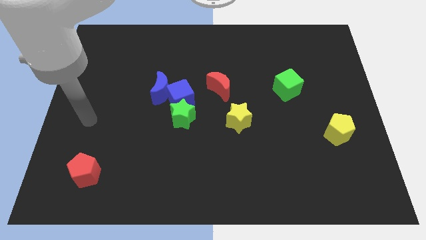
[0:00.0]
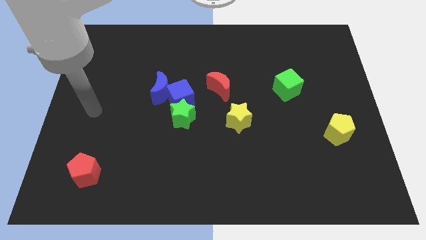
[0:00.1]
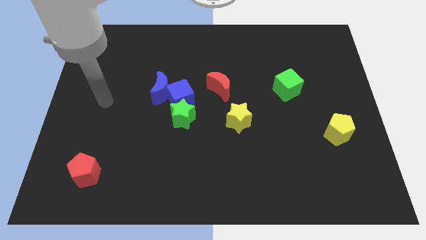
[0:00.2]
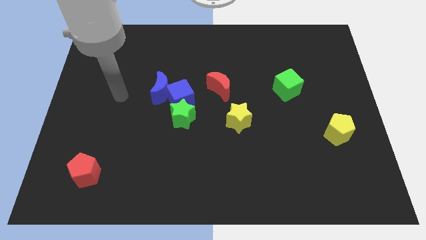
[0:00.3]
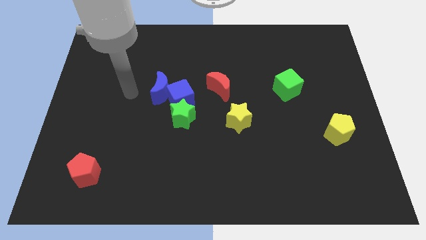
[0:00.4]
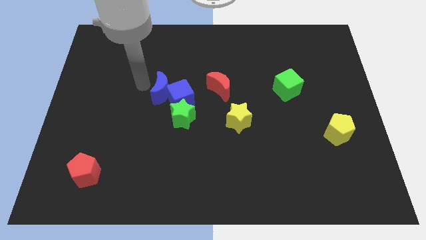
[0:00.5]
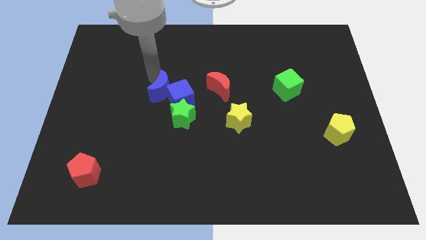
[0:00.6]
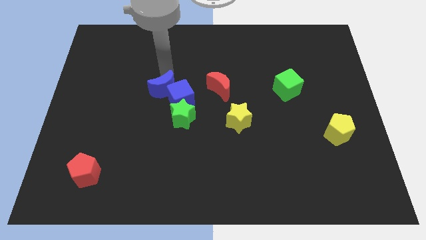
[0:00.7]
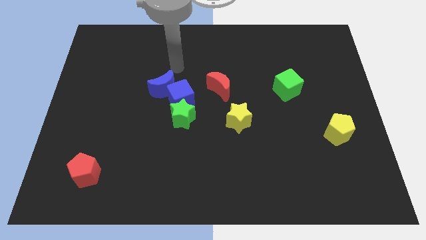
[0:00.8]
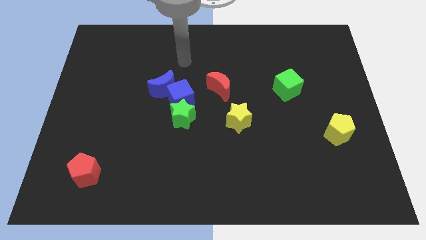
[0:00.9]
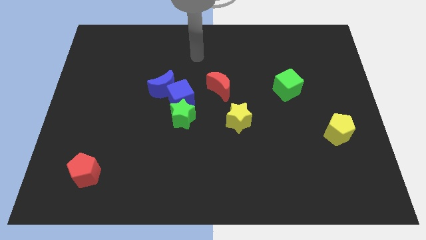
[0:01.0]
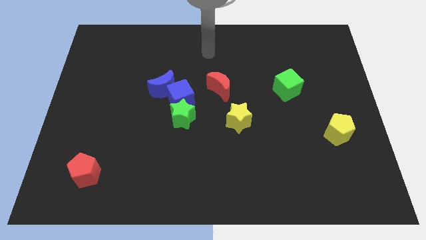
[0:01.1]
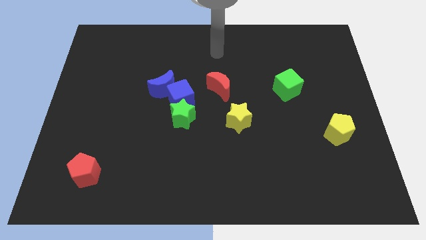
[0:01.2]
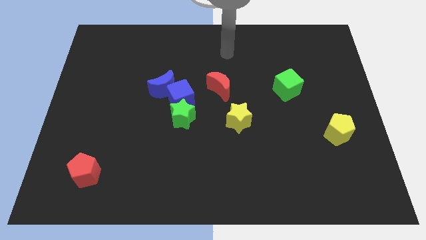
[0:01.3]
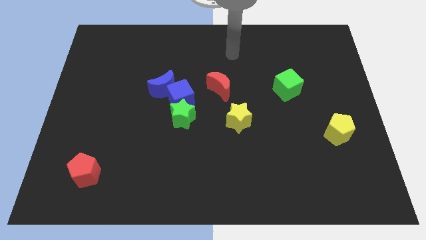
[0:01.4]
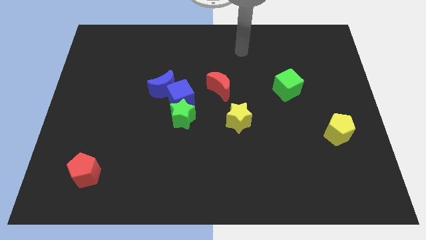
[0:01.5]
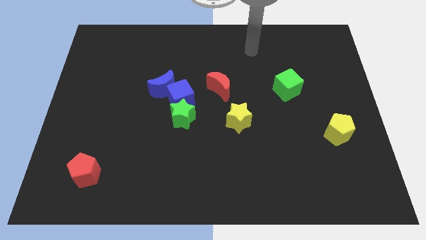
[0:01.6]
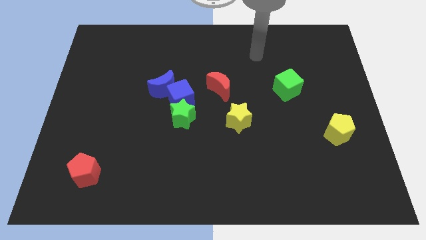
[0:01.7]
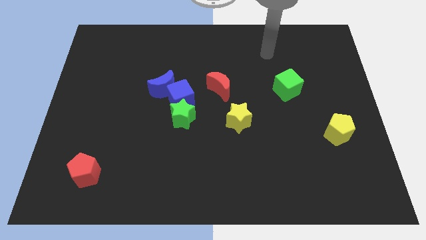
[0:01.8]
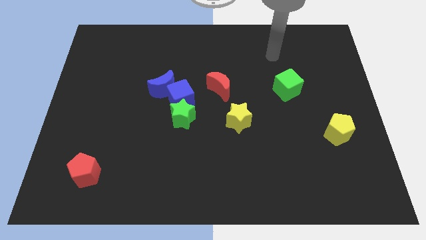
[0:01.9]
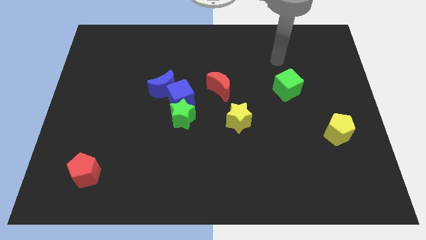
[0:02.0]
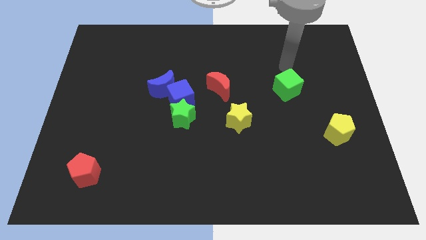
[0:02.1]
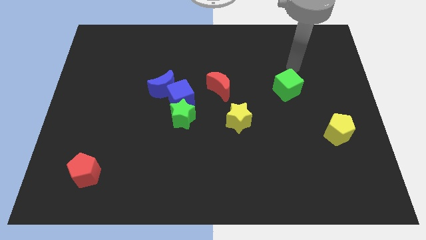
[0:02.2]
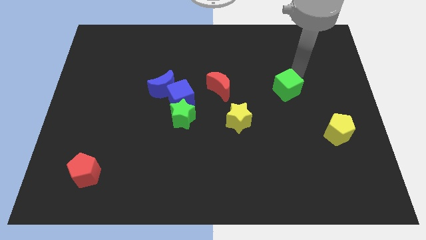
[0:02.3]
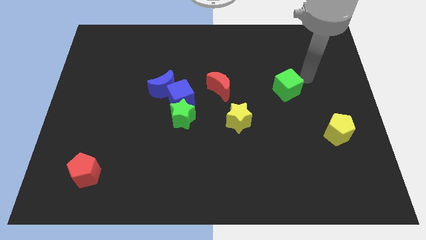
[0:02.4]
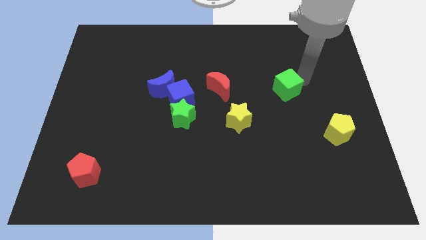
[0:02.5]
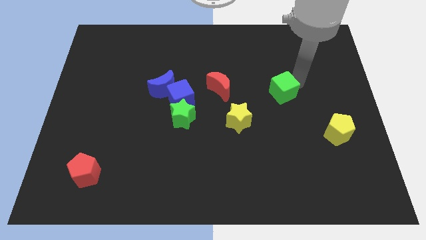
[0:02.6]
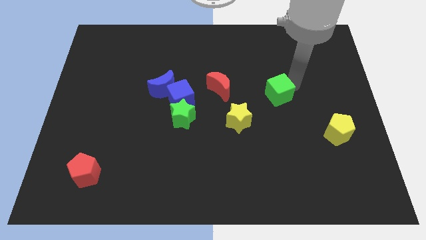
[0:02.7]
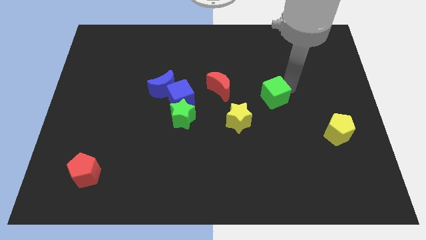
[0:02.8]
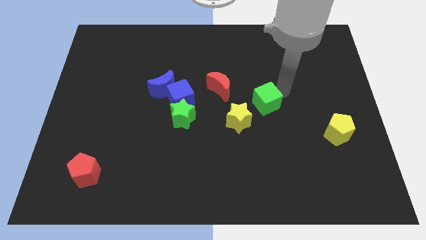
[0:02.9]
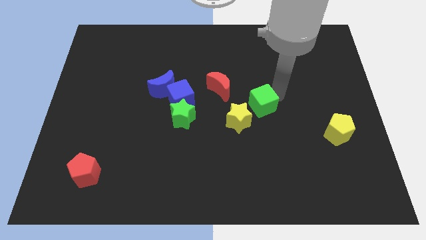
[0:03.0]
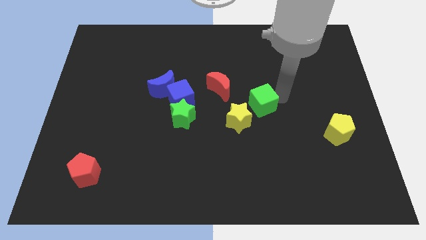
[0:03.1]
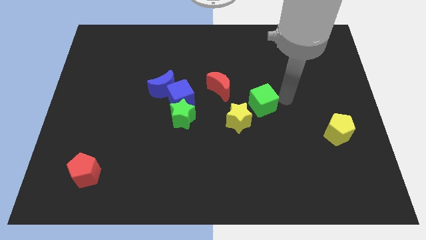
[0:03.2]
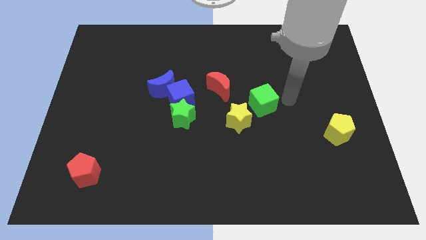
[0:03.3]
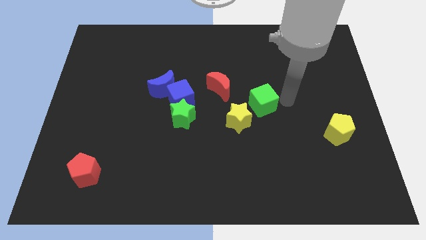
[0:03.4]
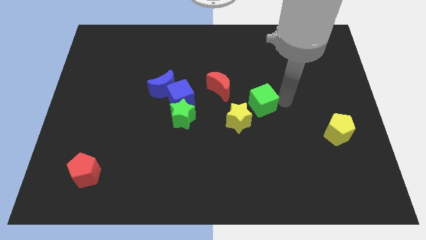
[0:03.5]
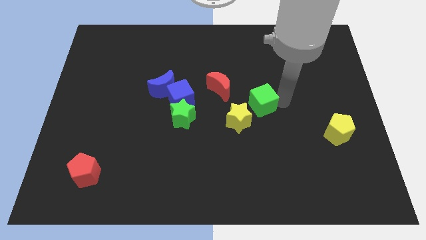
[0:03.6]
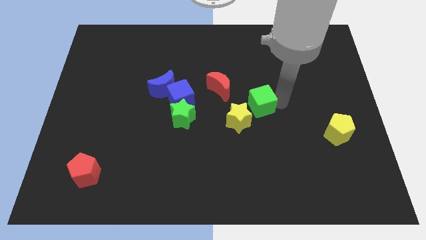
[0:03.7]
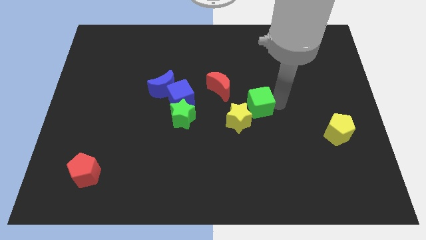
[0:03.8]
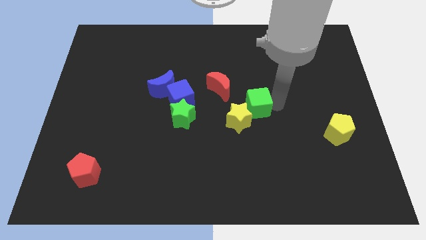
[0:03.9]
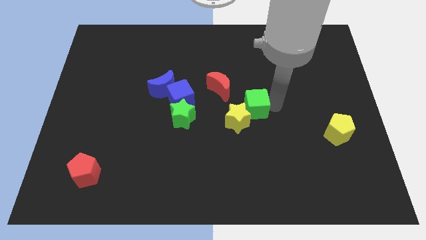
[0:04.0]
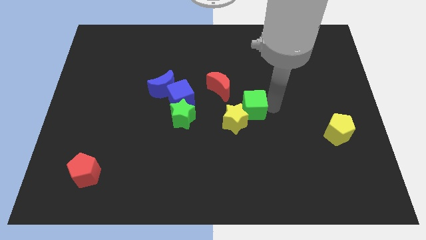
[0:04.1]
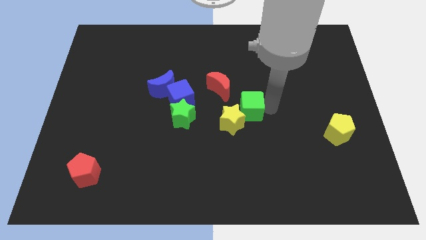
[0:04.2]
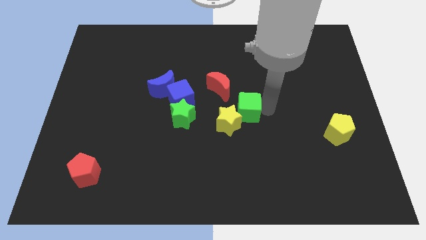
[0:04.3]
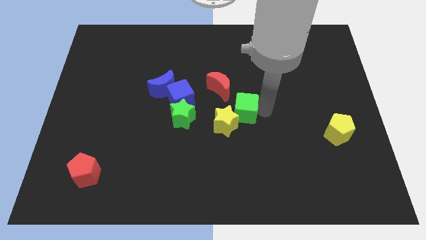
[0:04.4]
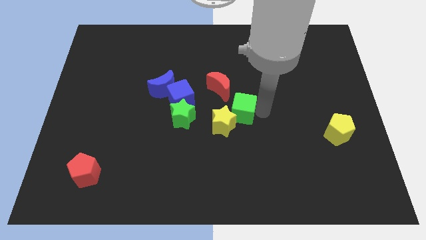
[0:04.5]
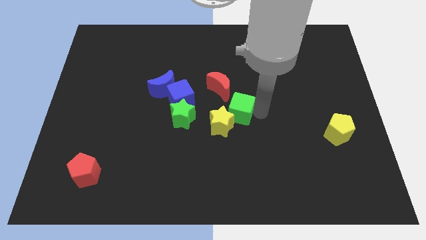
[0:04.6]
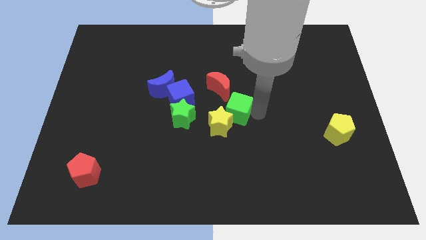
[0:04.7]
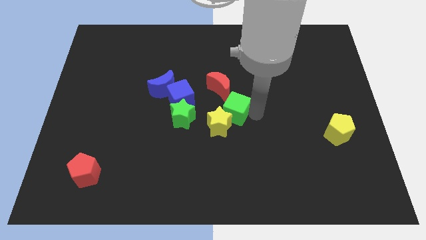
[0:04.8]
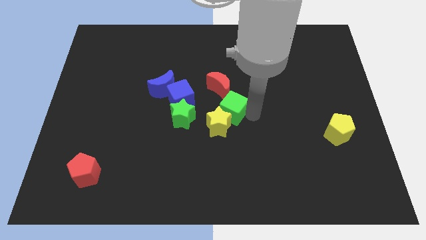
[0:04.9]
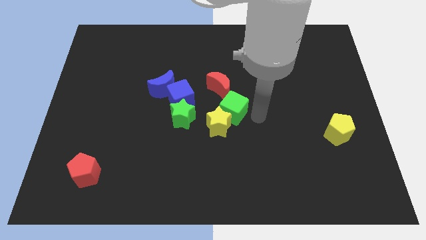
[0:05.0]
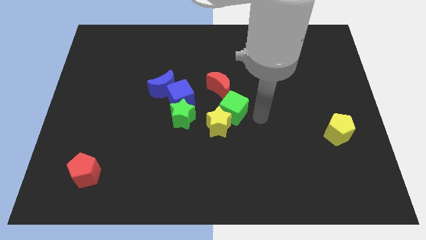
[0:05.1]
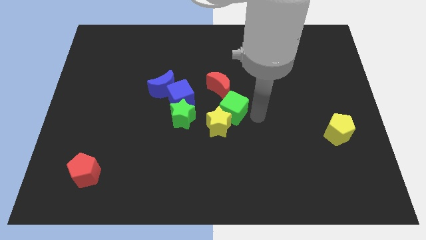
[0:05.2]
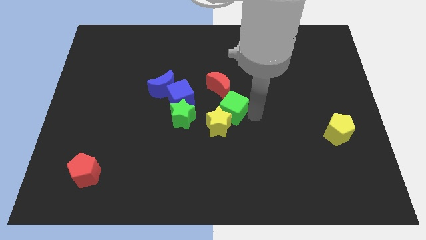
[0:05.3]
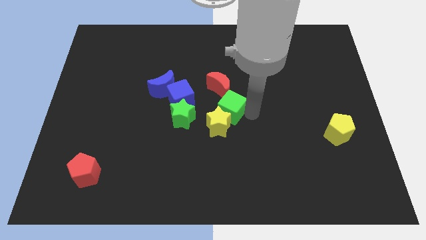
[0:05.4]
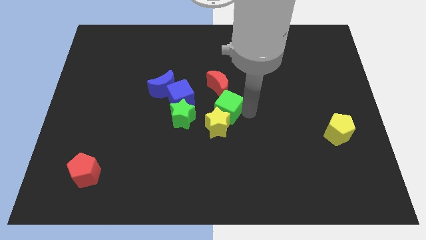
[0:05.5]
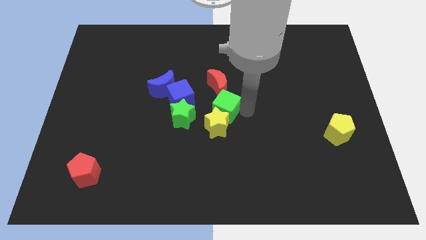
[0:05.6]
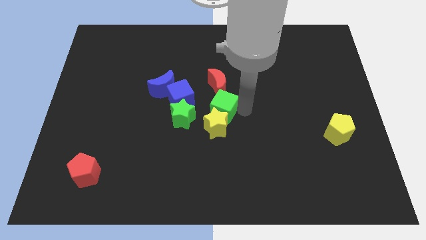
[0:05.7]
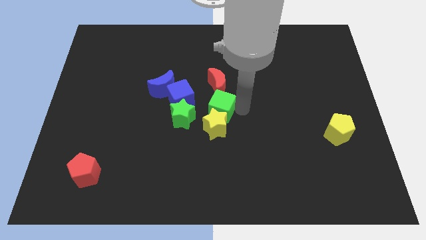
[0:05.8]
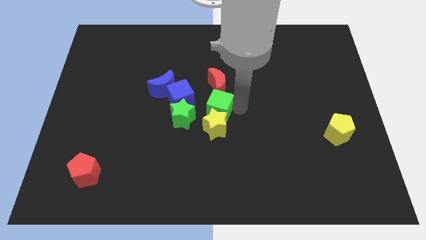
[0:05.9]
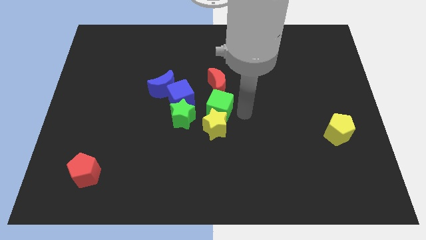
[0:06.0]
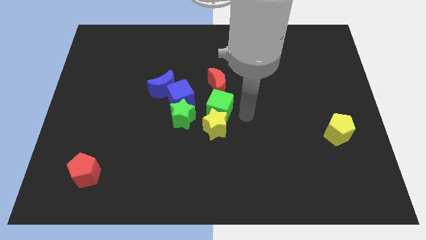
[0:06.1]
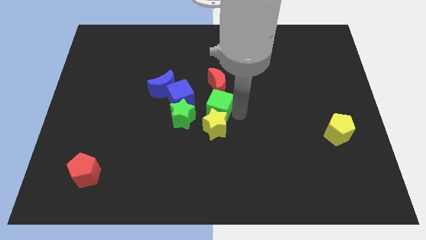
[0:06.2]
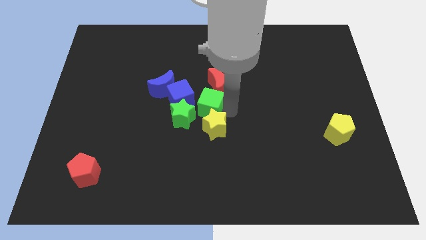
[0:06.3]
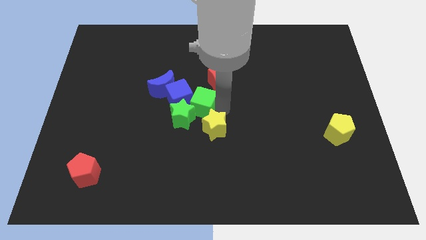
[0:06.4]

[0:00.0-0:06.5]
move the green cube close to the blue cube

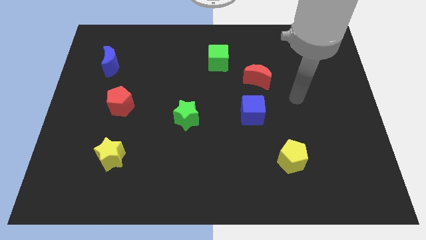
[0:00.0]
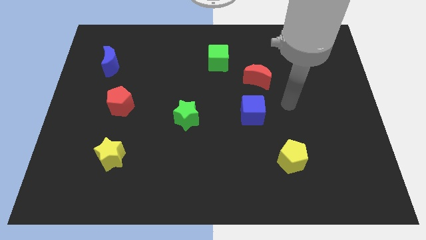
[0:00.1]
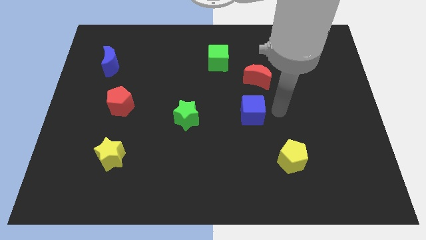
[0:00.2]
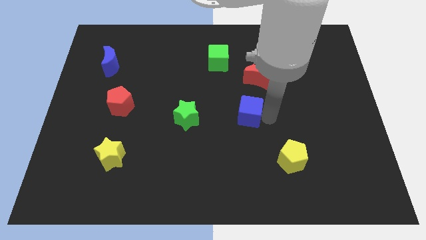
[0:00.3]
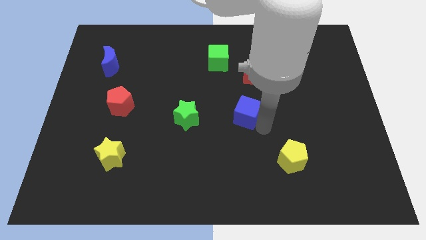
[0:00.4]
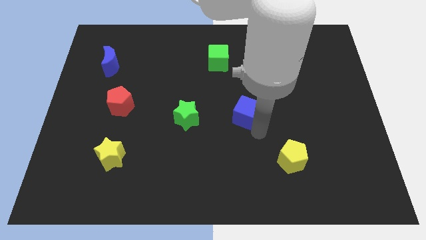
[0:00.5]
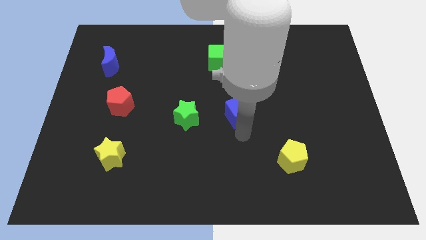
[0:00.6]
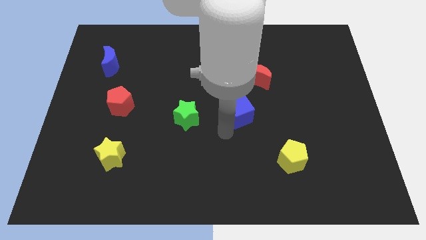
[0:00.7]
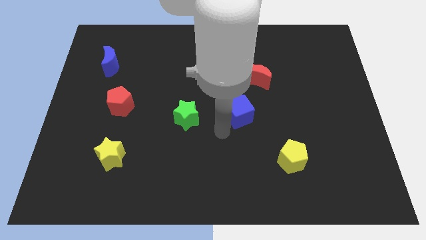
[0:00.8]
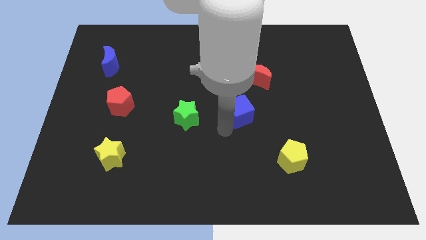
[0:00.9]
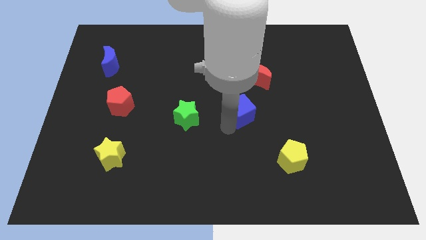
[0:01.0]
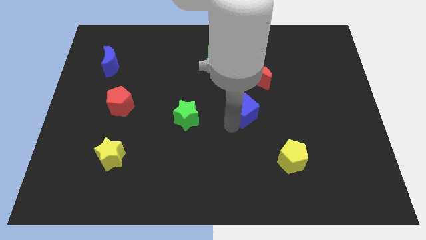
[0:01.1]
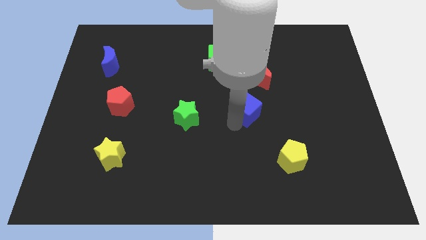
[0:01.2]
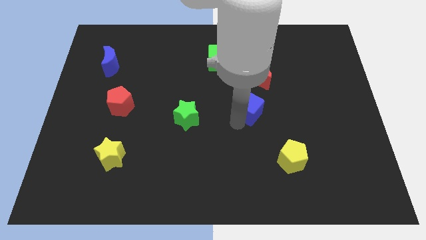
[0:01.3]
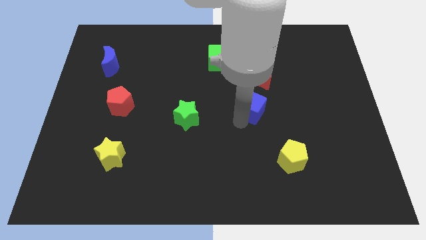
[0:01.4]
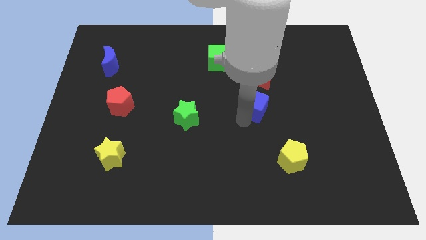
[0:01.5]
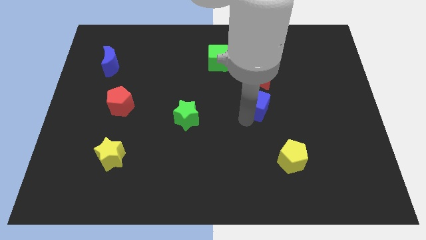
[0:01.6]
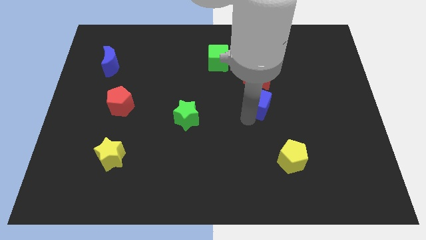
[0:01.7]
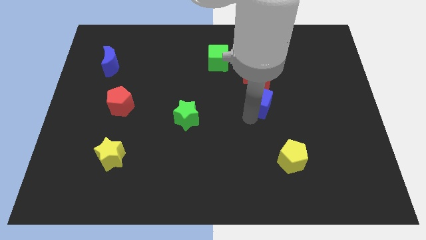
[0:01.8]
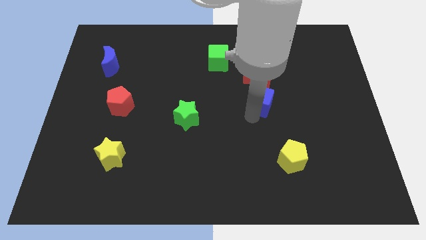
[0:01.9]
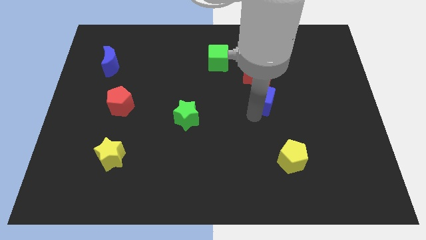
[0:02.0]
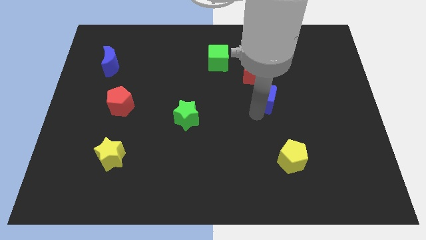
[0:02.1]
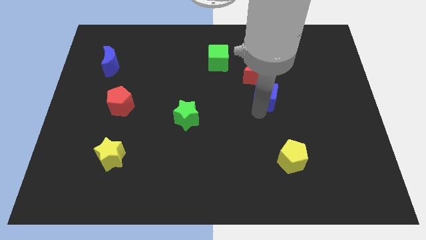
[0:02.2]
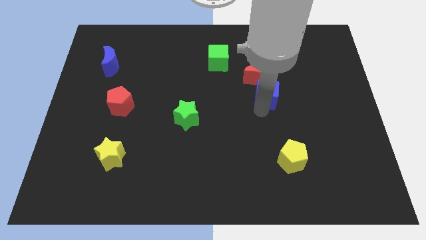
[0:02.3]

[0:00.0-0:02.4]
move the blue cube next to the red moon
